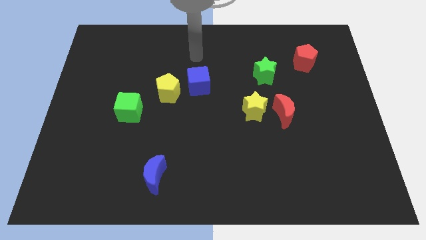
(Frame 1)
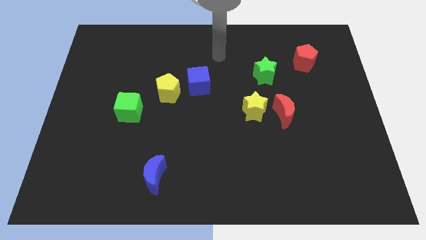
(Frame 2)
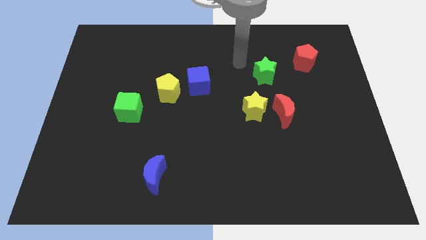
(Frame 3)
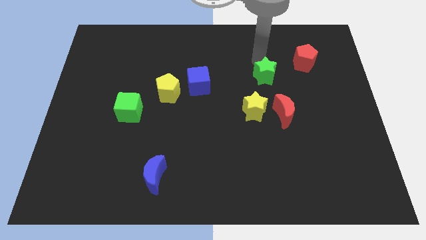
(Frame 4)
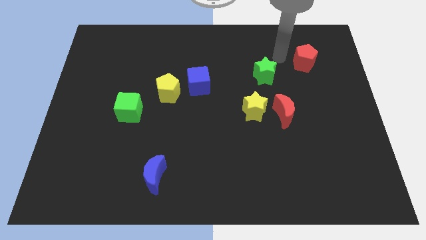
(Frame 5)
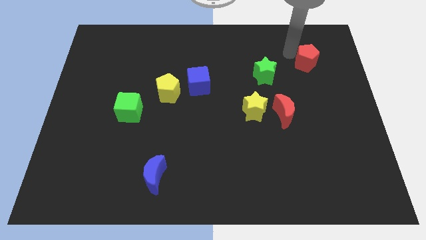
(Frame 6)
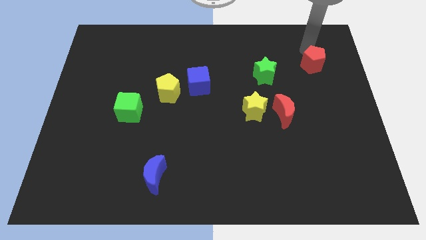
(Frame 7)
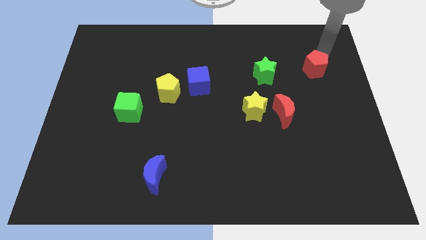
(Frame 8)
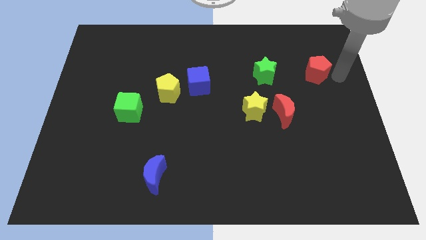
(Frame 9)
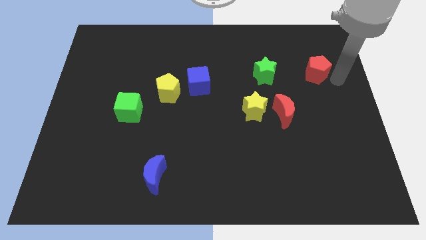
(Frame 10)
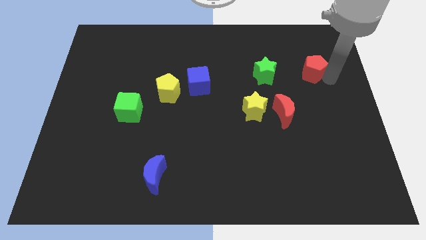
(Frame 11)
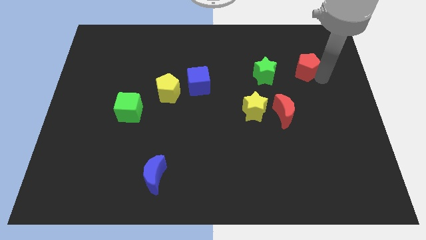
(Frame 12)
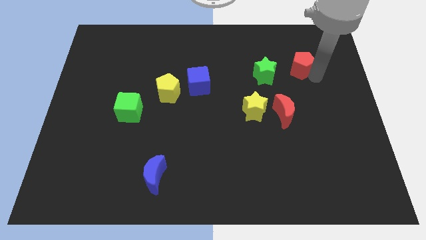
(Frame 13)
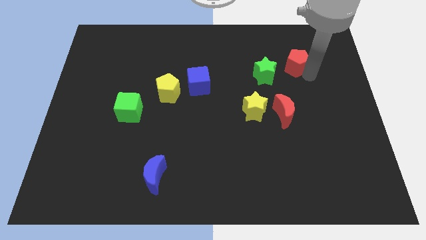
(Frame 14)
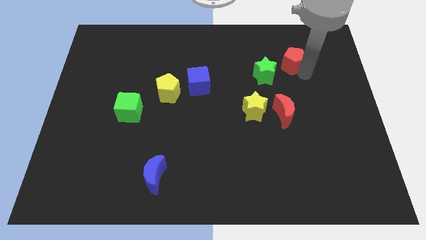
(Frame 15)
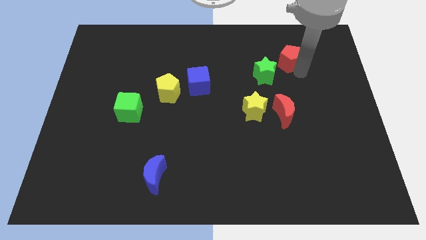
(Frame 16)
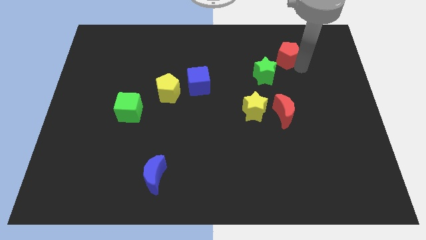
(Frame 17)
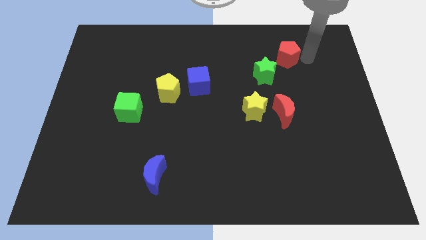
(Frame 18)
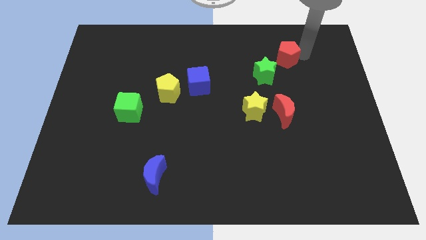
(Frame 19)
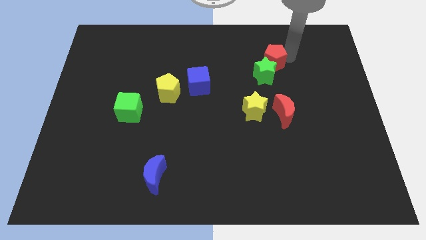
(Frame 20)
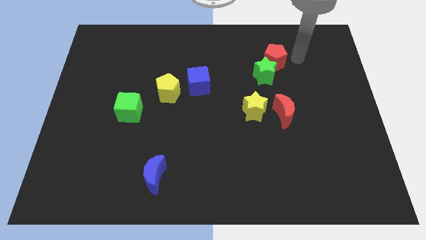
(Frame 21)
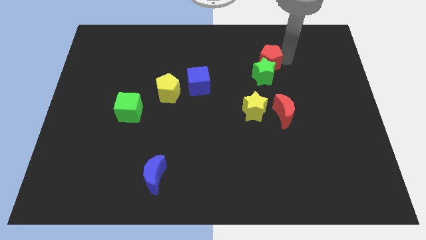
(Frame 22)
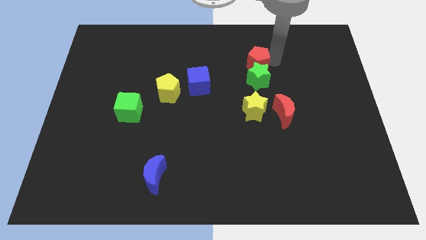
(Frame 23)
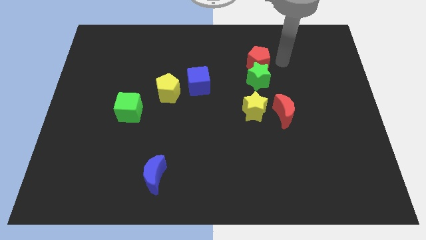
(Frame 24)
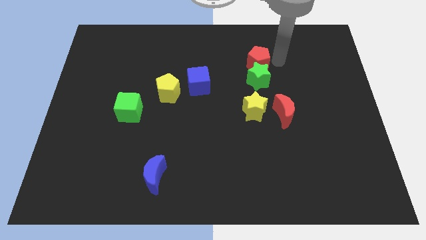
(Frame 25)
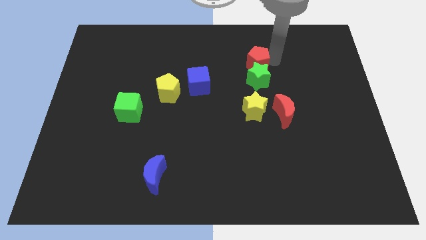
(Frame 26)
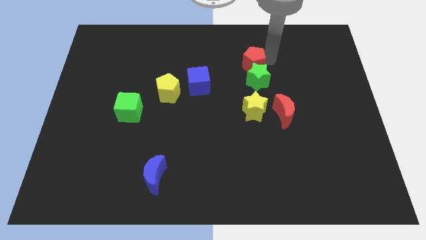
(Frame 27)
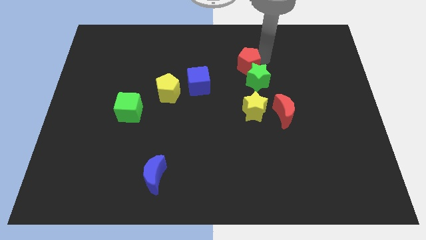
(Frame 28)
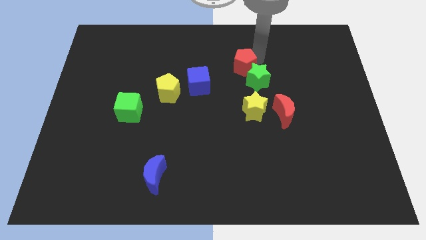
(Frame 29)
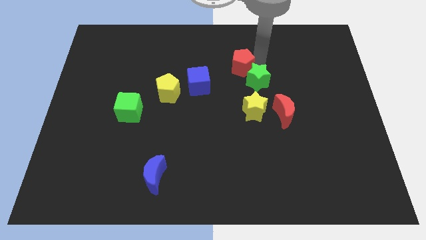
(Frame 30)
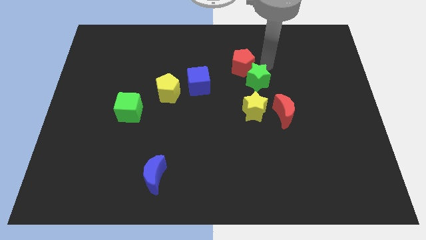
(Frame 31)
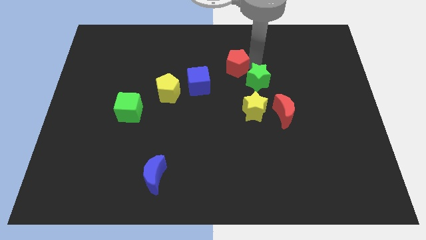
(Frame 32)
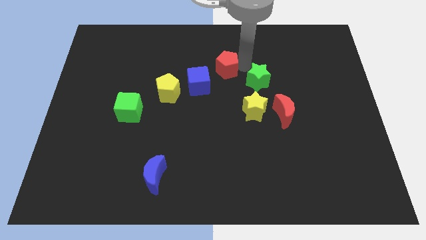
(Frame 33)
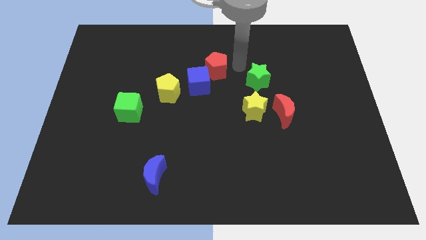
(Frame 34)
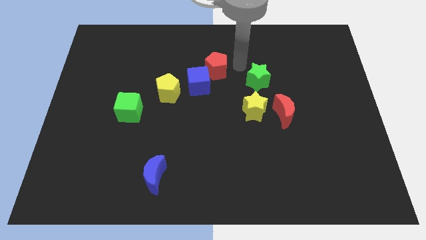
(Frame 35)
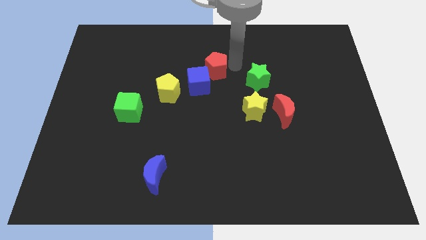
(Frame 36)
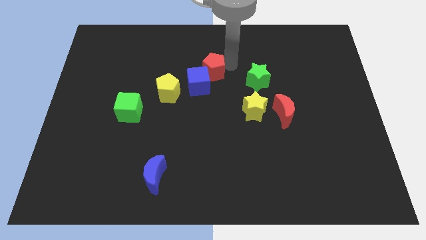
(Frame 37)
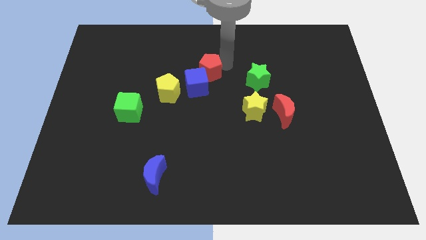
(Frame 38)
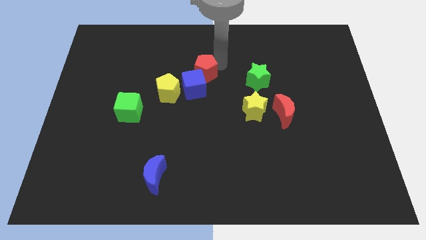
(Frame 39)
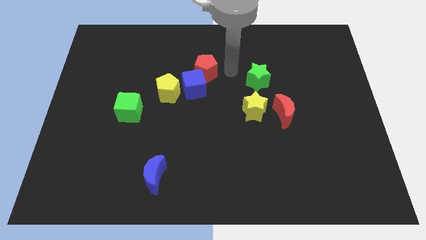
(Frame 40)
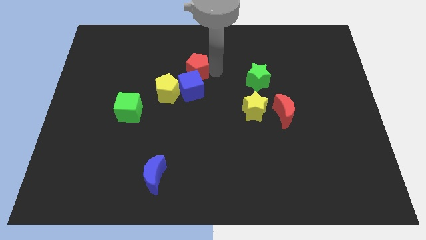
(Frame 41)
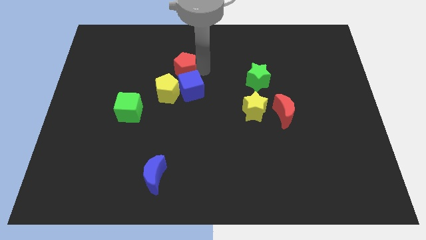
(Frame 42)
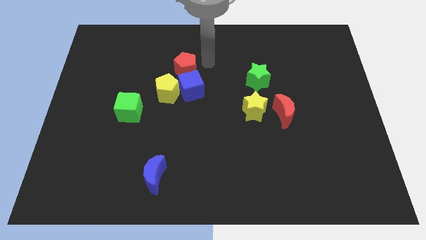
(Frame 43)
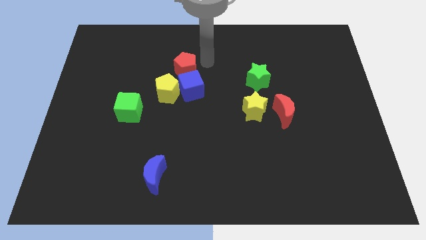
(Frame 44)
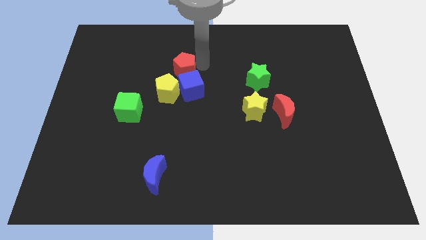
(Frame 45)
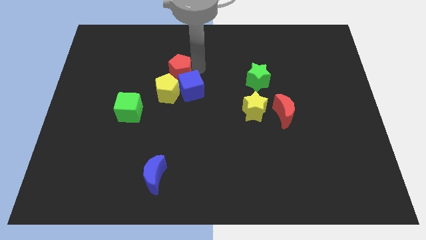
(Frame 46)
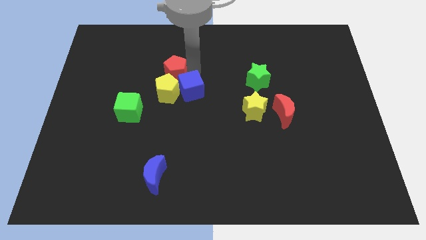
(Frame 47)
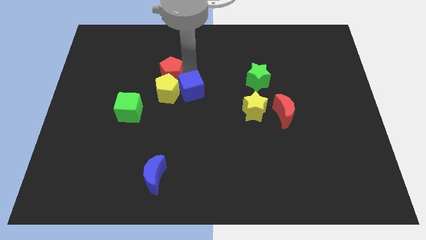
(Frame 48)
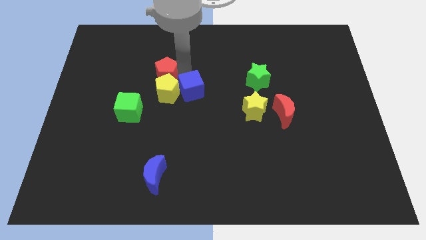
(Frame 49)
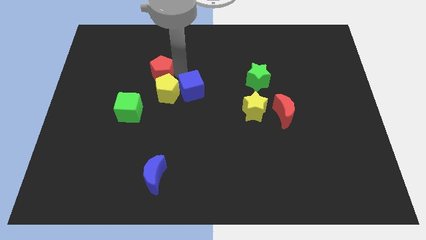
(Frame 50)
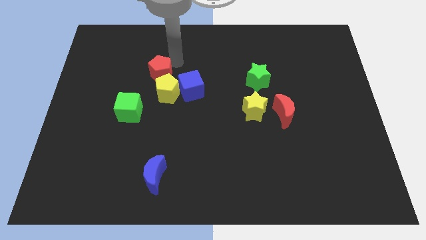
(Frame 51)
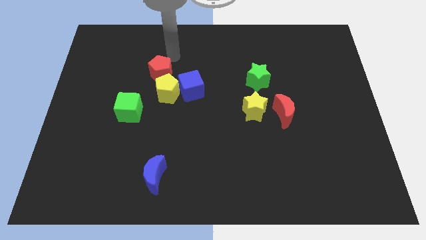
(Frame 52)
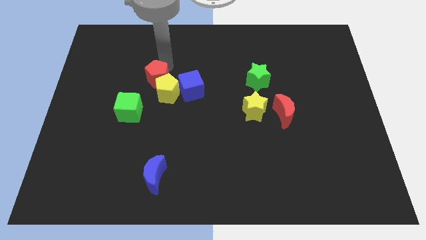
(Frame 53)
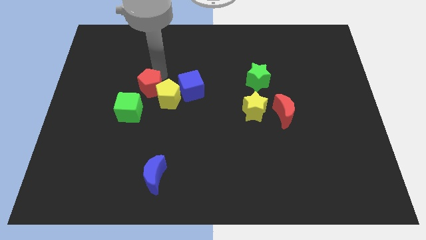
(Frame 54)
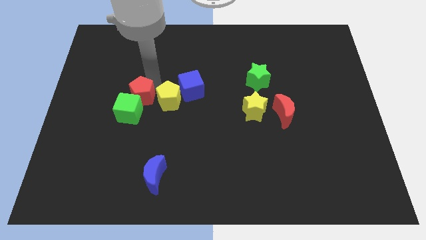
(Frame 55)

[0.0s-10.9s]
put the red pentagon to the green cube

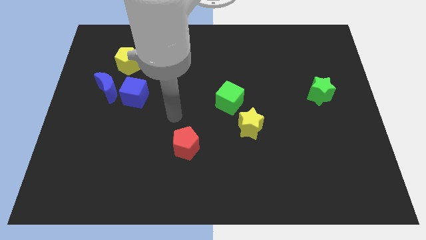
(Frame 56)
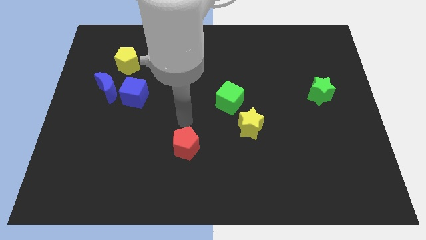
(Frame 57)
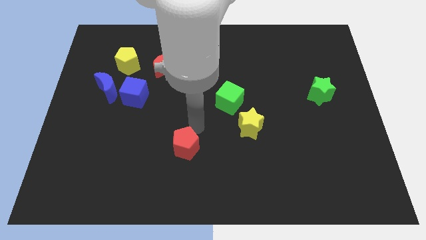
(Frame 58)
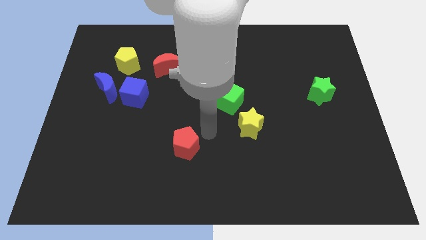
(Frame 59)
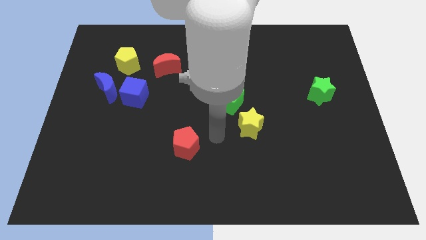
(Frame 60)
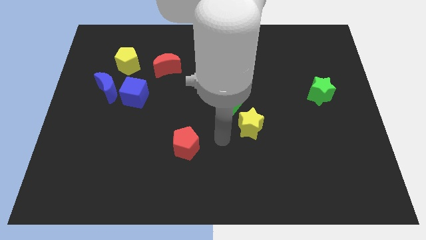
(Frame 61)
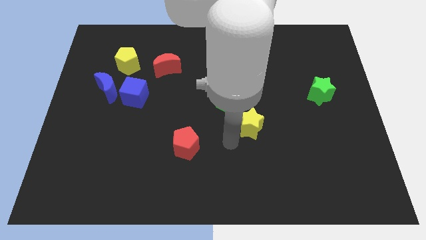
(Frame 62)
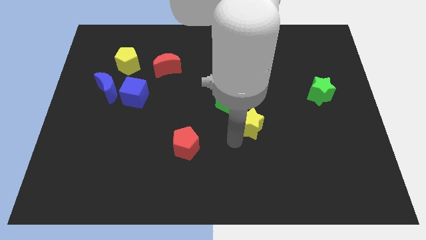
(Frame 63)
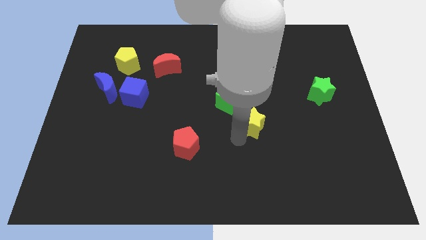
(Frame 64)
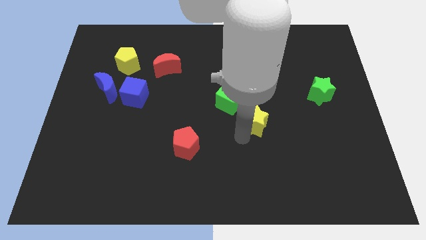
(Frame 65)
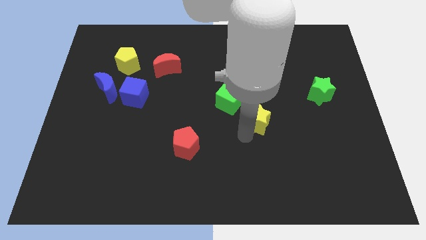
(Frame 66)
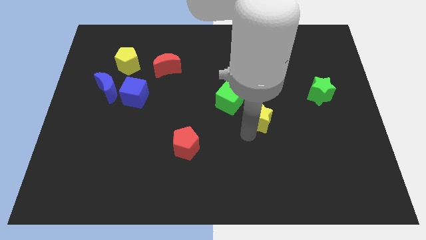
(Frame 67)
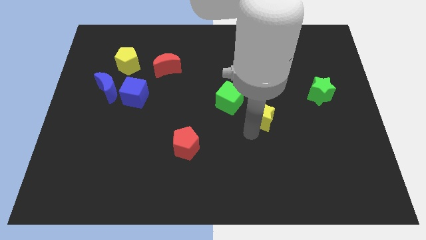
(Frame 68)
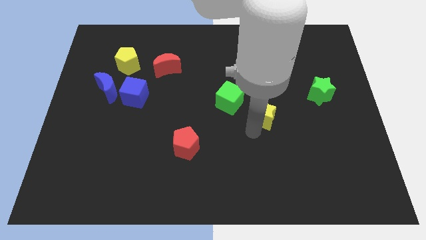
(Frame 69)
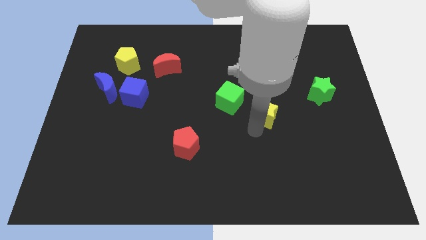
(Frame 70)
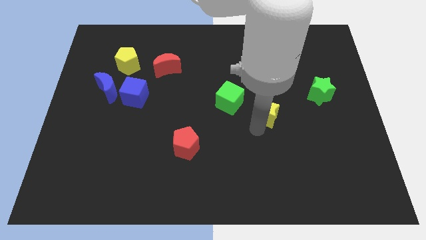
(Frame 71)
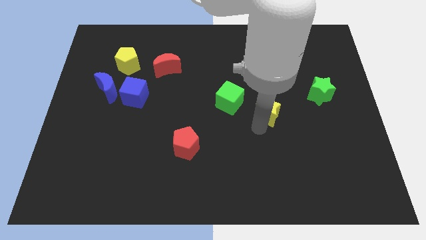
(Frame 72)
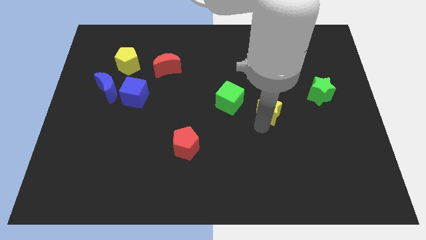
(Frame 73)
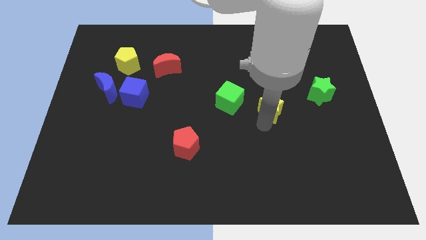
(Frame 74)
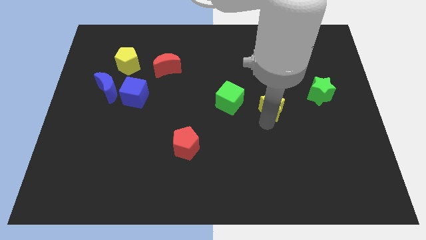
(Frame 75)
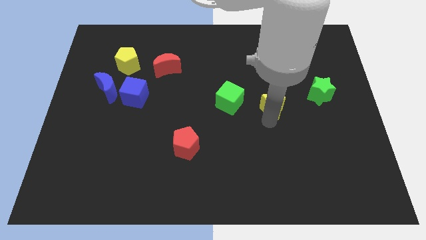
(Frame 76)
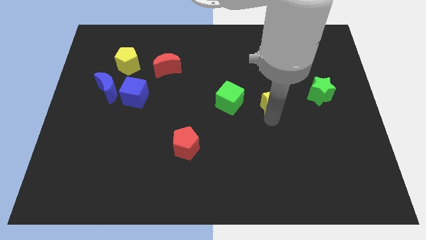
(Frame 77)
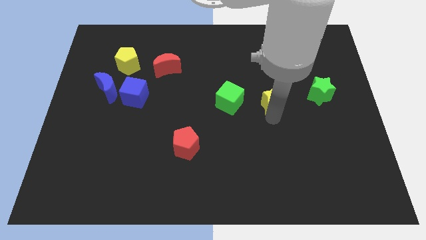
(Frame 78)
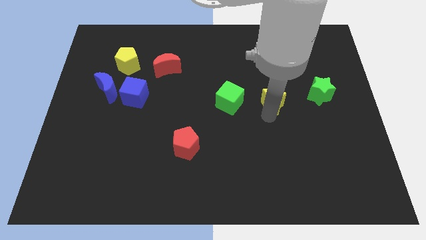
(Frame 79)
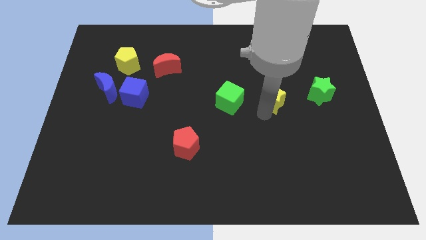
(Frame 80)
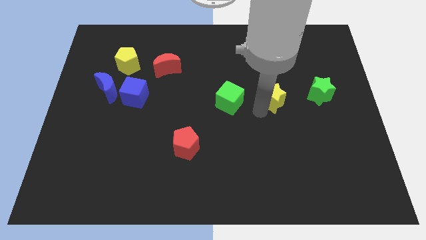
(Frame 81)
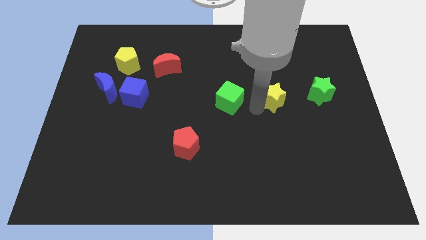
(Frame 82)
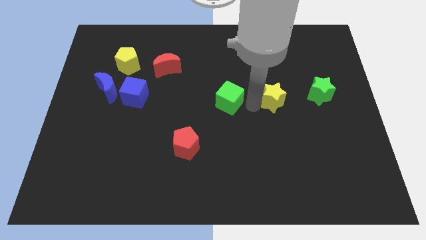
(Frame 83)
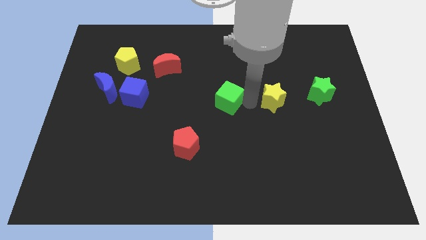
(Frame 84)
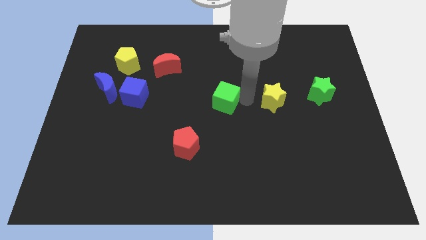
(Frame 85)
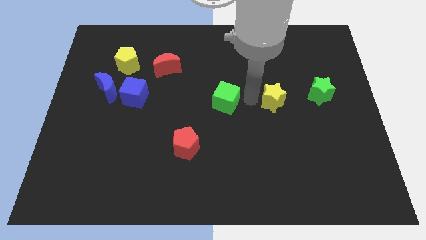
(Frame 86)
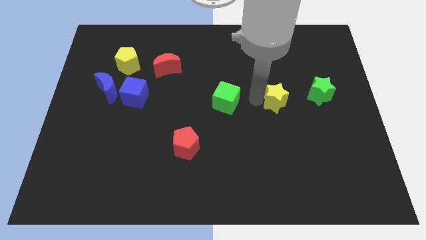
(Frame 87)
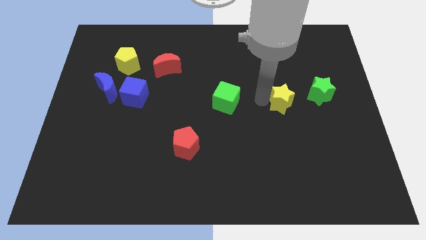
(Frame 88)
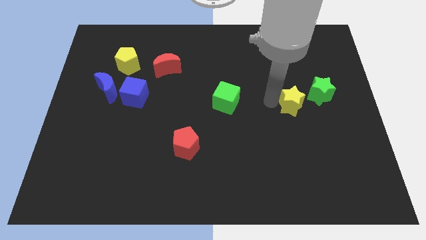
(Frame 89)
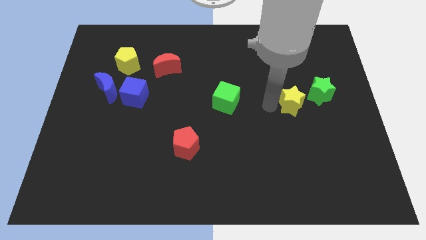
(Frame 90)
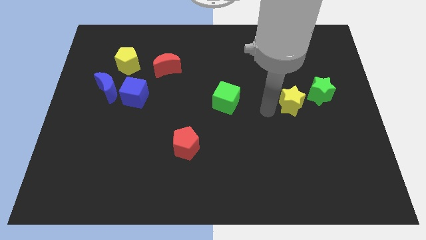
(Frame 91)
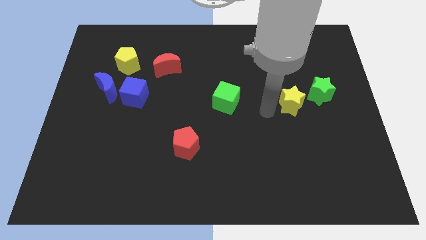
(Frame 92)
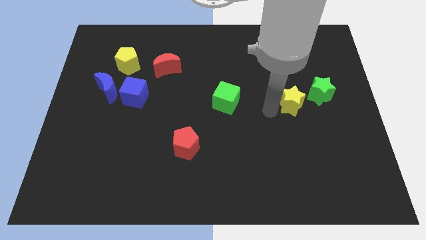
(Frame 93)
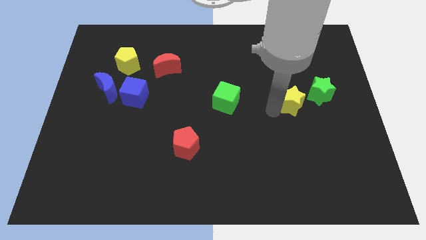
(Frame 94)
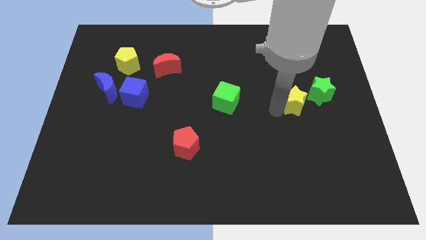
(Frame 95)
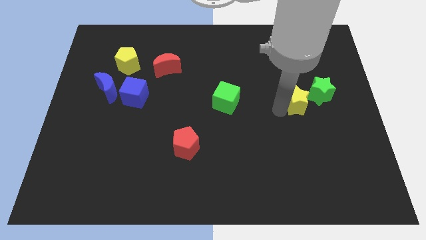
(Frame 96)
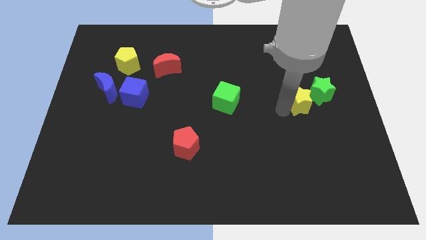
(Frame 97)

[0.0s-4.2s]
move the yellow star to the green star
